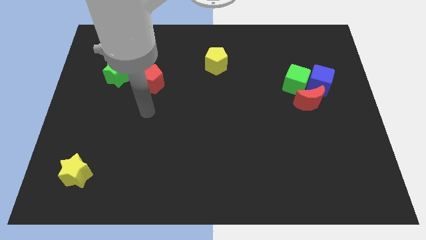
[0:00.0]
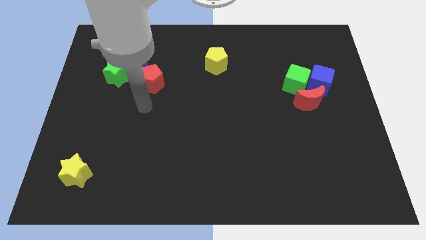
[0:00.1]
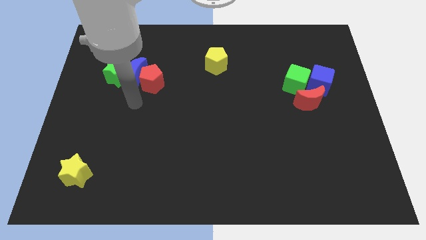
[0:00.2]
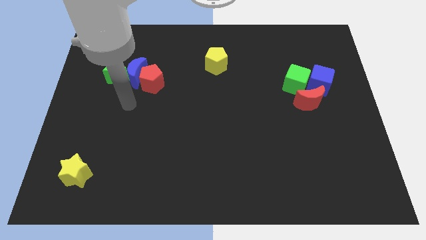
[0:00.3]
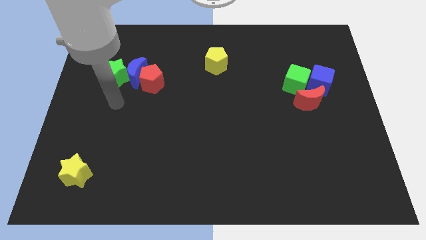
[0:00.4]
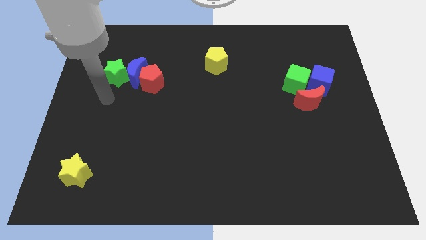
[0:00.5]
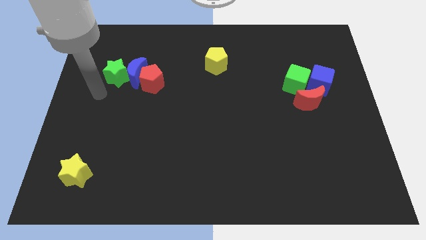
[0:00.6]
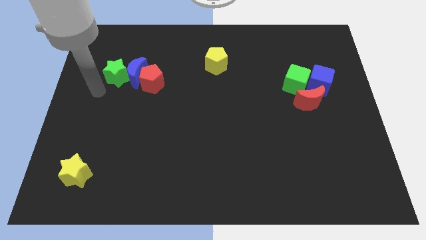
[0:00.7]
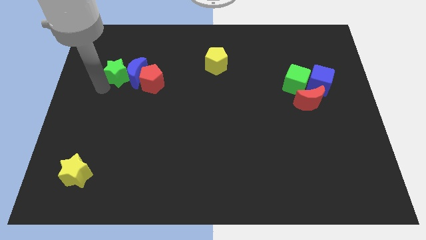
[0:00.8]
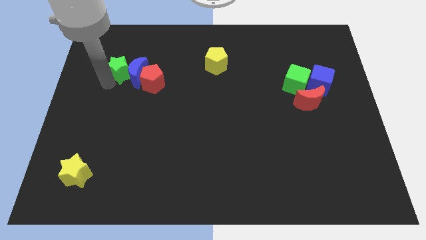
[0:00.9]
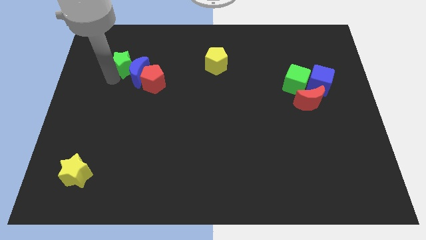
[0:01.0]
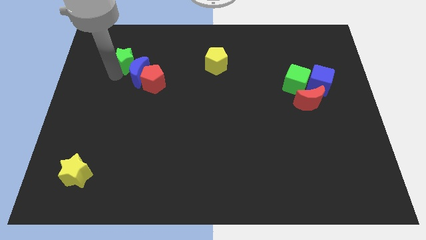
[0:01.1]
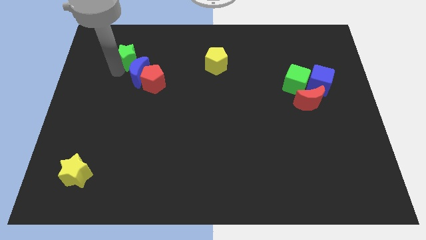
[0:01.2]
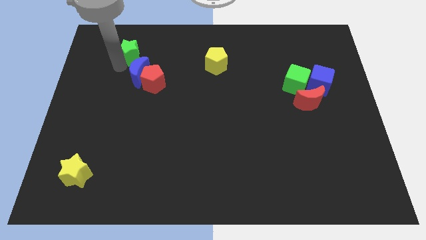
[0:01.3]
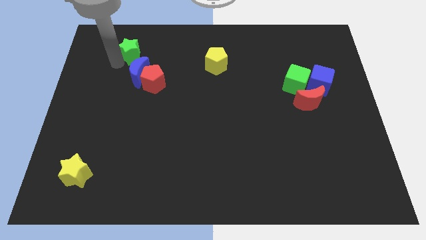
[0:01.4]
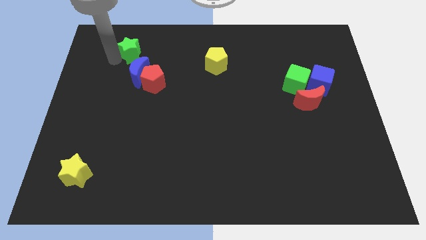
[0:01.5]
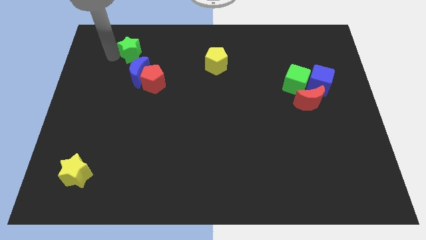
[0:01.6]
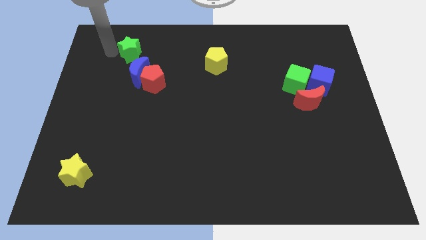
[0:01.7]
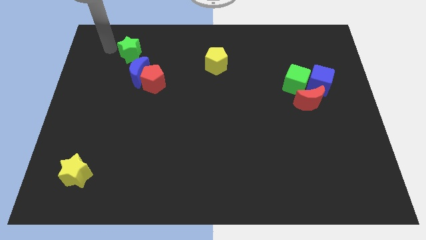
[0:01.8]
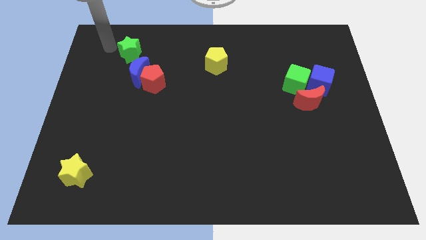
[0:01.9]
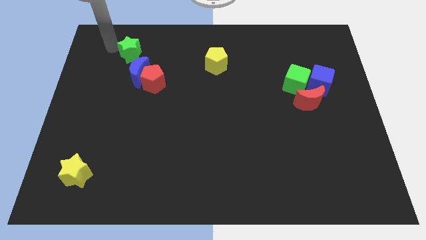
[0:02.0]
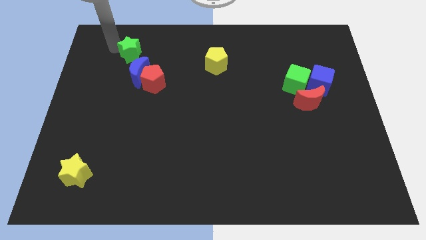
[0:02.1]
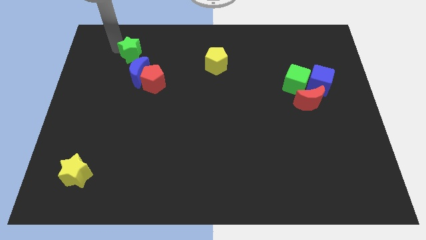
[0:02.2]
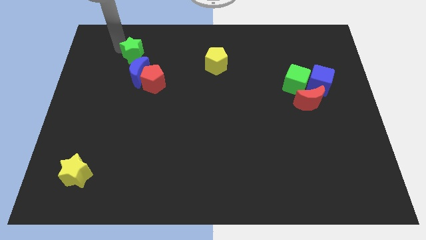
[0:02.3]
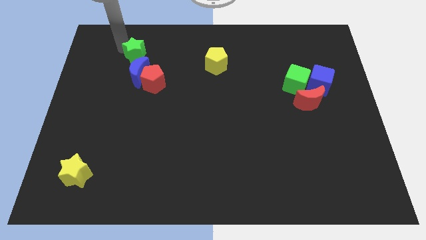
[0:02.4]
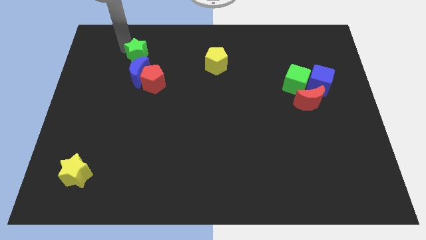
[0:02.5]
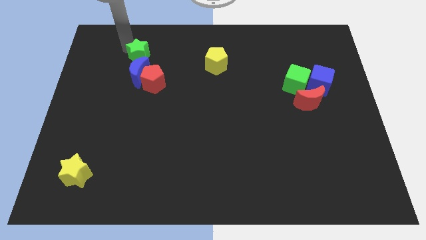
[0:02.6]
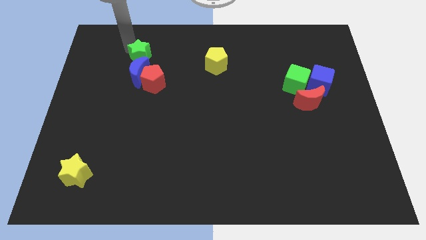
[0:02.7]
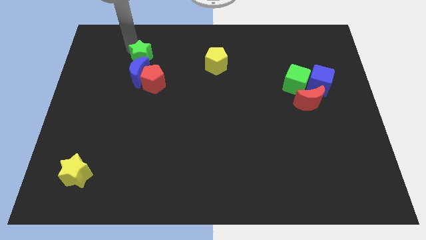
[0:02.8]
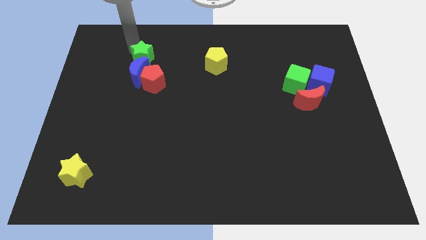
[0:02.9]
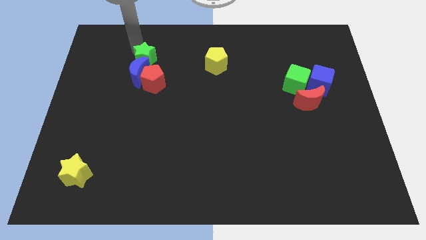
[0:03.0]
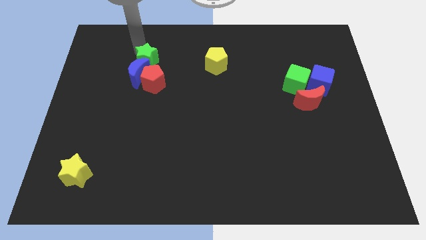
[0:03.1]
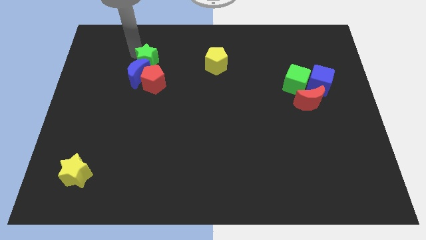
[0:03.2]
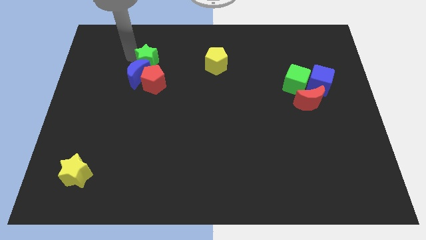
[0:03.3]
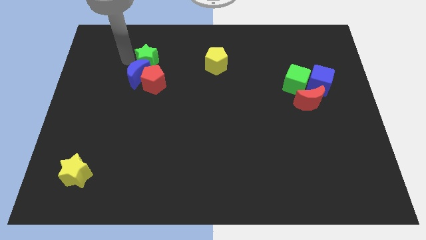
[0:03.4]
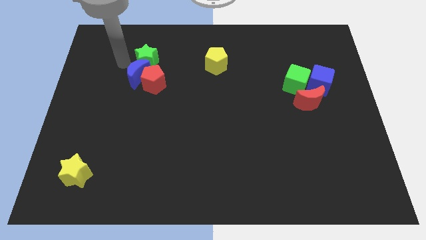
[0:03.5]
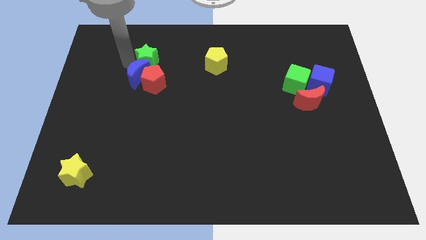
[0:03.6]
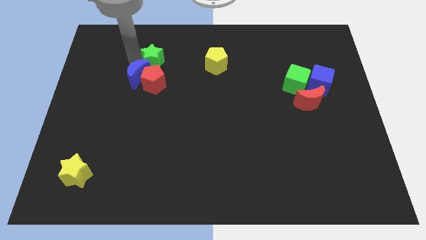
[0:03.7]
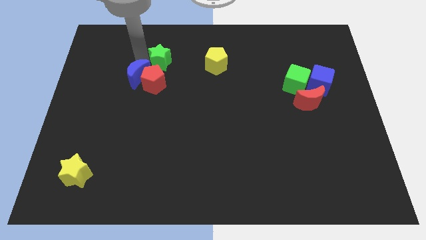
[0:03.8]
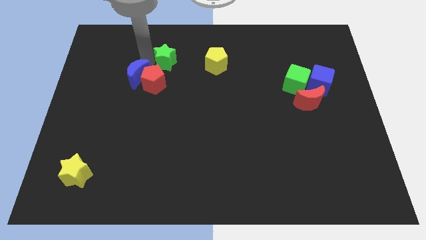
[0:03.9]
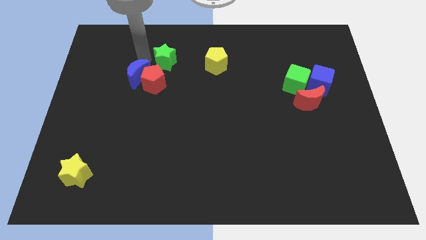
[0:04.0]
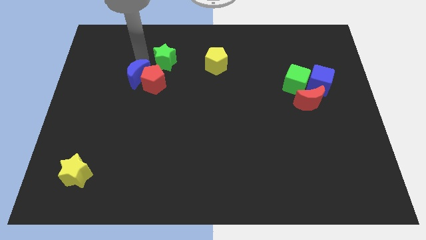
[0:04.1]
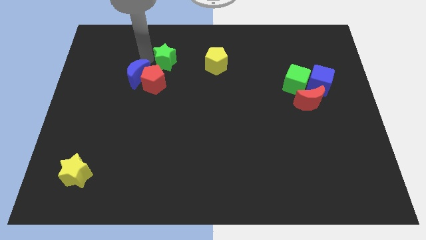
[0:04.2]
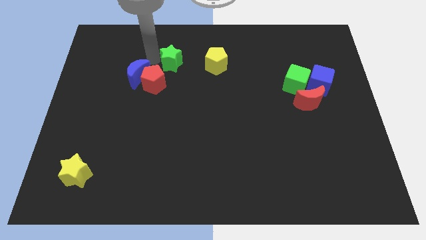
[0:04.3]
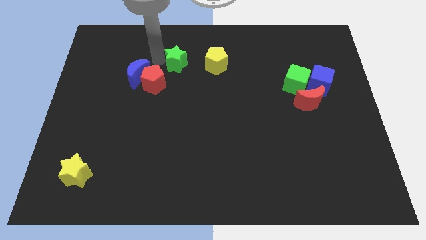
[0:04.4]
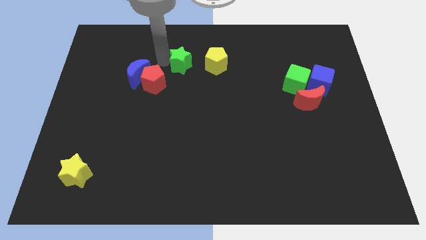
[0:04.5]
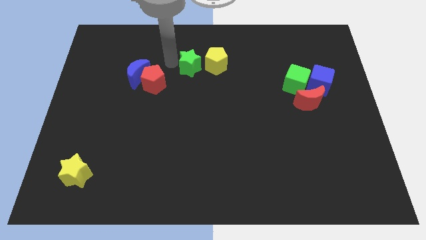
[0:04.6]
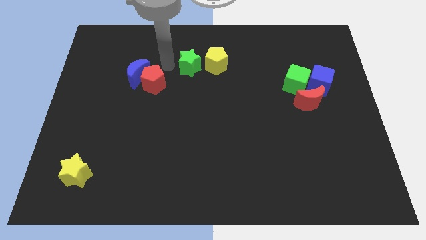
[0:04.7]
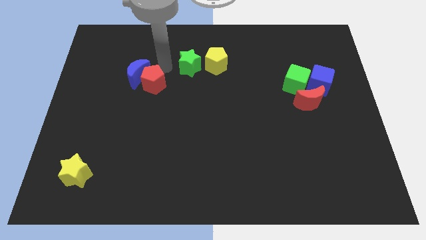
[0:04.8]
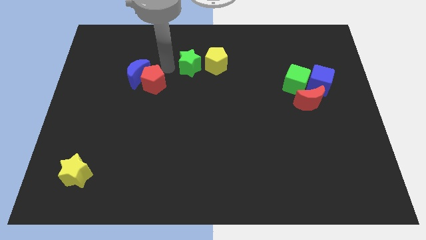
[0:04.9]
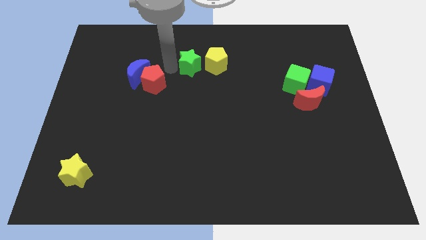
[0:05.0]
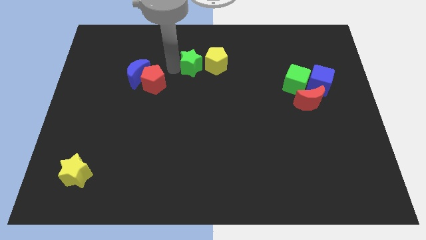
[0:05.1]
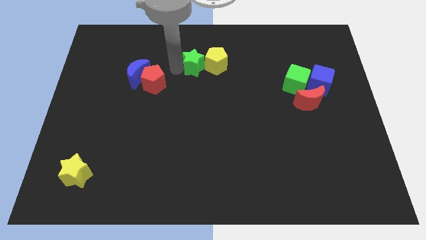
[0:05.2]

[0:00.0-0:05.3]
put the green star to the yellow pentagon

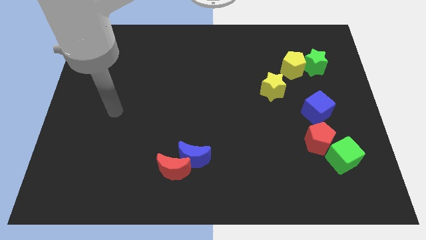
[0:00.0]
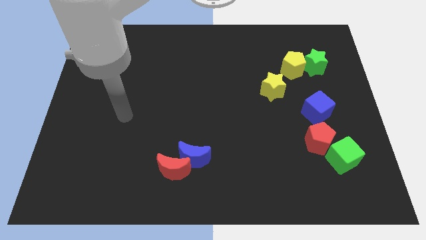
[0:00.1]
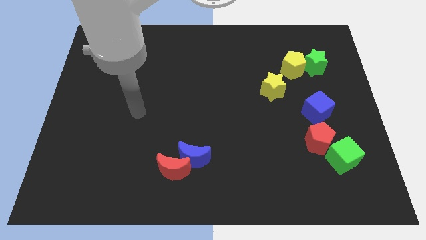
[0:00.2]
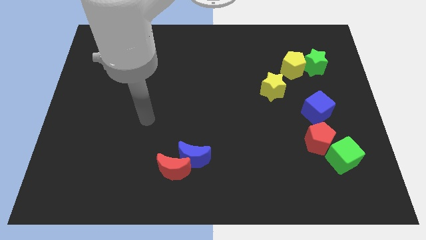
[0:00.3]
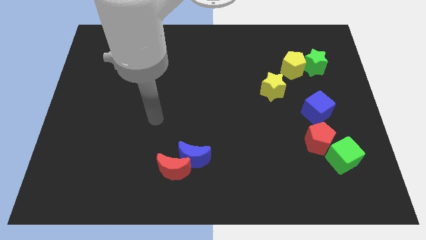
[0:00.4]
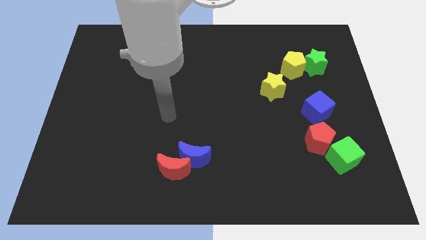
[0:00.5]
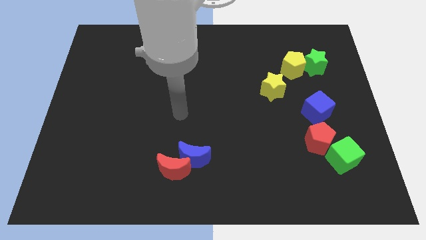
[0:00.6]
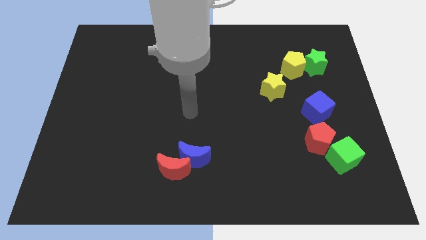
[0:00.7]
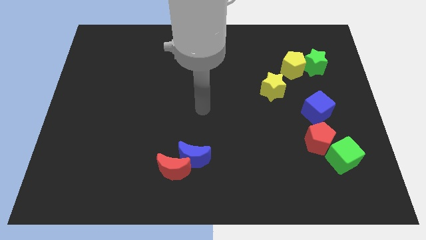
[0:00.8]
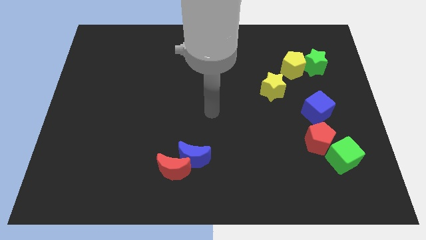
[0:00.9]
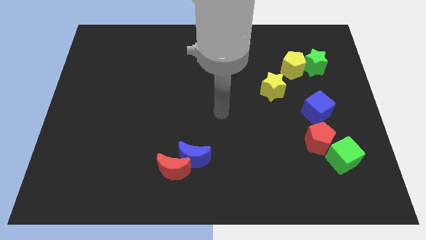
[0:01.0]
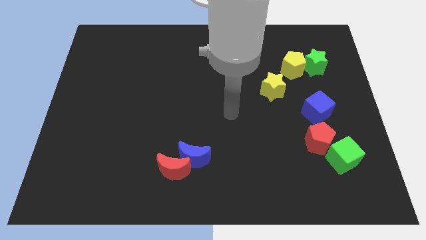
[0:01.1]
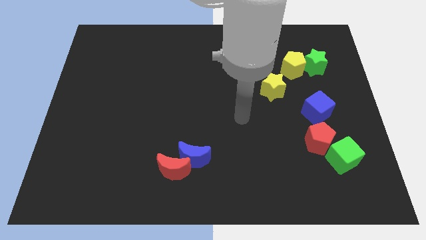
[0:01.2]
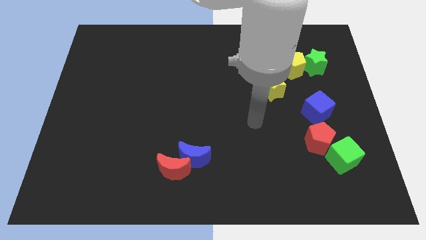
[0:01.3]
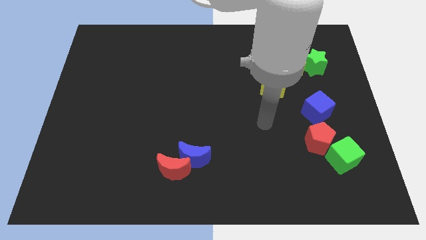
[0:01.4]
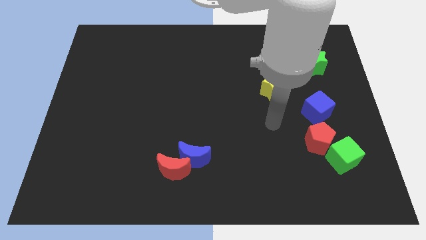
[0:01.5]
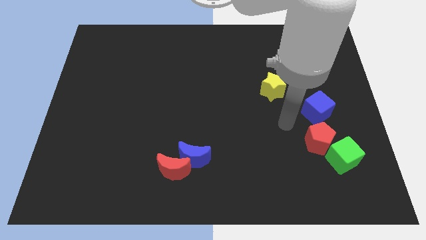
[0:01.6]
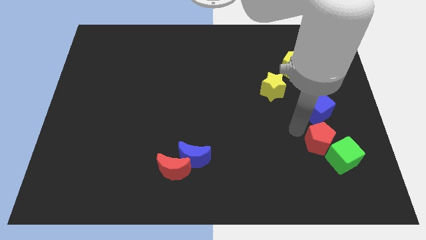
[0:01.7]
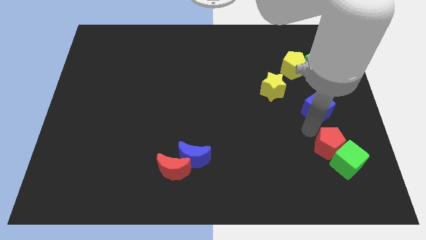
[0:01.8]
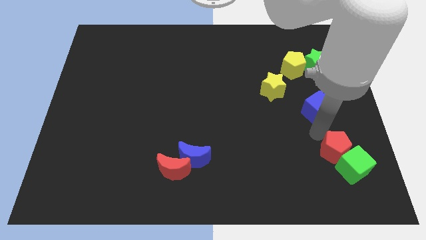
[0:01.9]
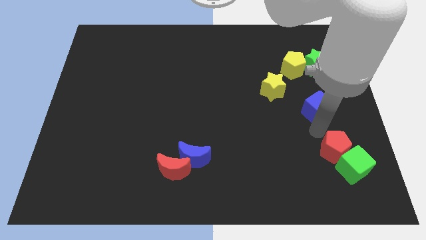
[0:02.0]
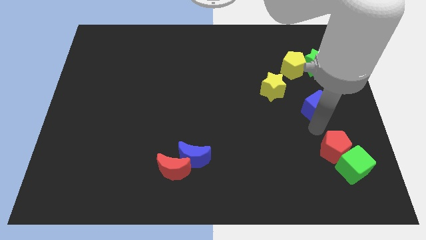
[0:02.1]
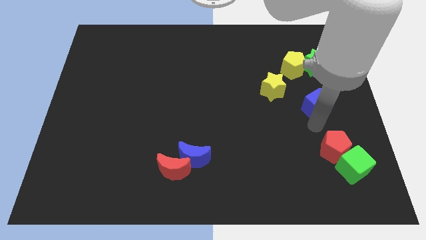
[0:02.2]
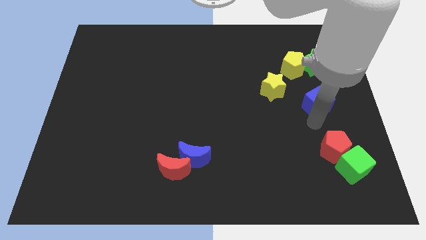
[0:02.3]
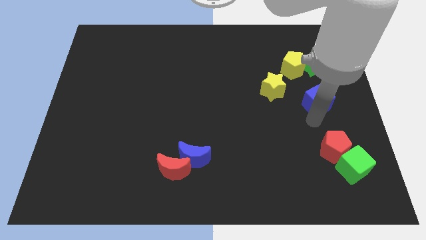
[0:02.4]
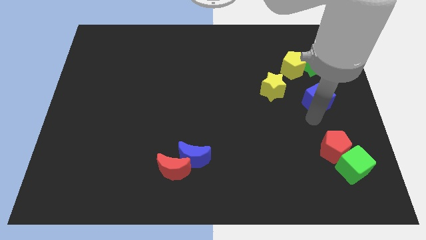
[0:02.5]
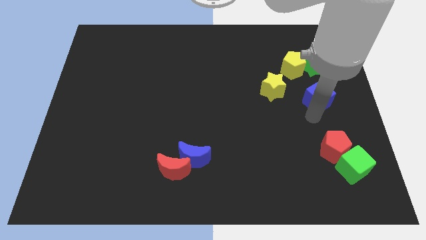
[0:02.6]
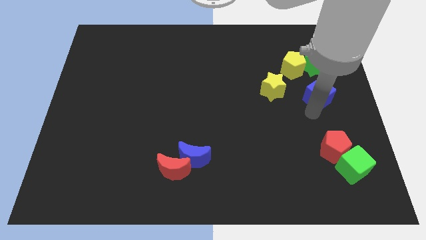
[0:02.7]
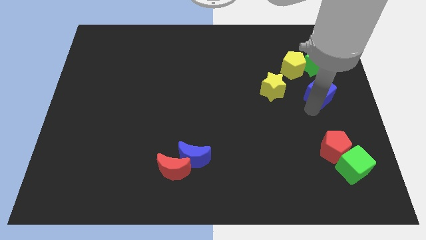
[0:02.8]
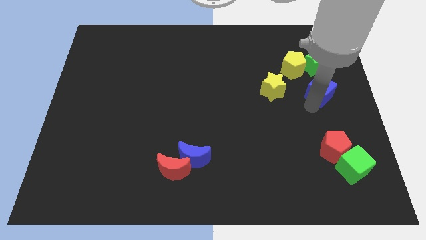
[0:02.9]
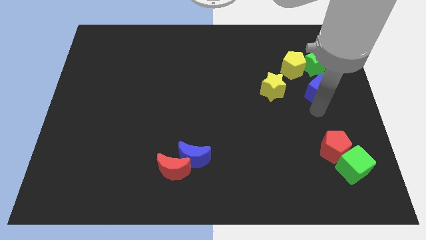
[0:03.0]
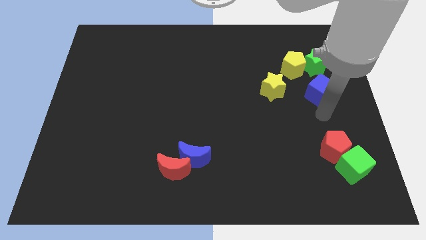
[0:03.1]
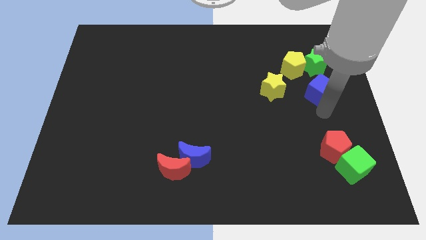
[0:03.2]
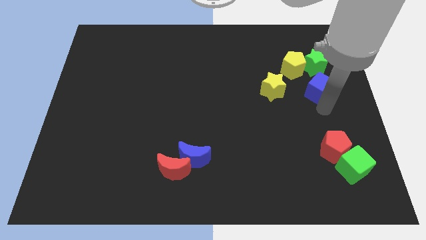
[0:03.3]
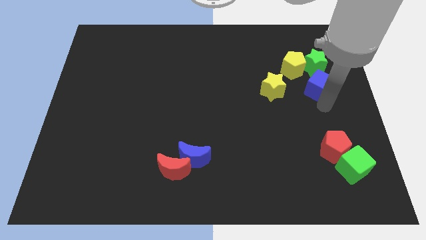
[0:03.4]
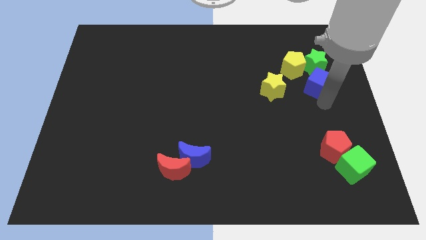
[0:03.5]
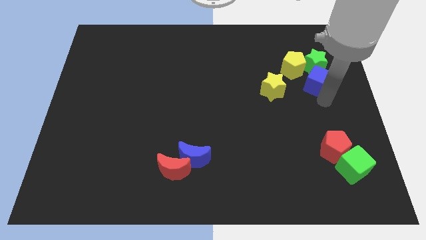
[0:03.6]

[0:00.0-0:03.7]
push the blue cube towards the green star
